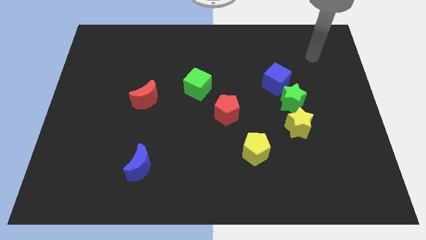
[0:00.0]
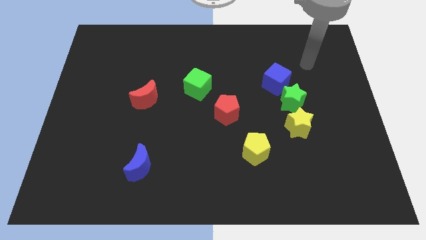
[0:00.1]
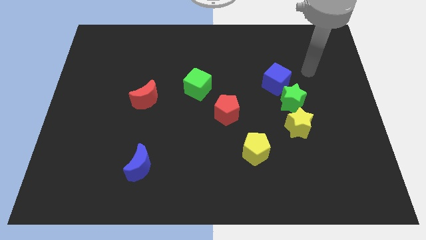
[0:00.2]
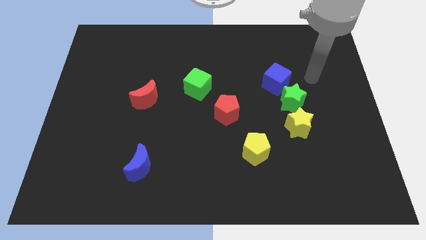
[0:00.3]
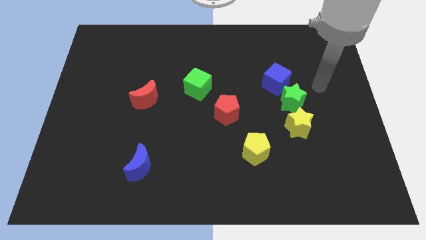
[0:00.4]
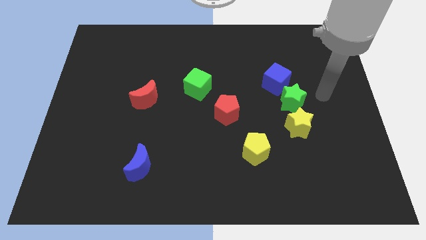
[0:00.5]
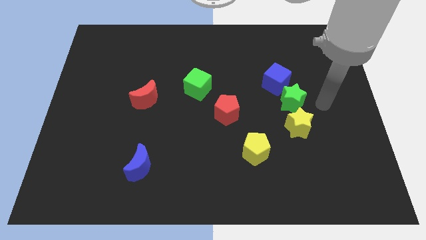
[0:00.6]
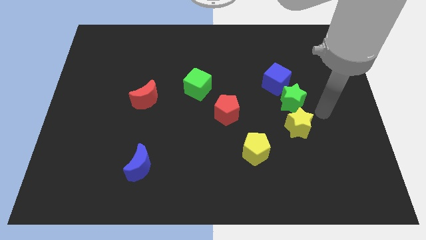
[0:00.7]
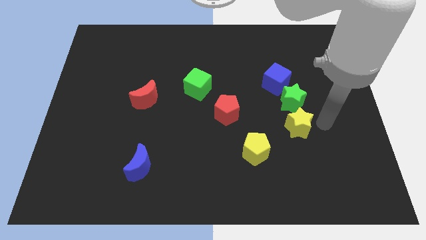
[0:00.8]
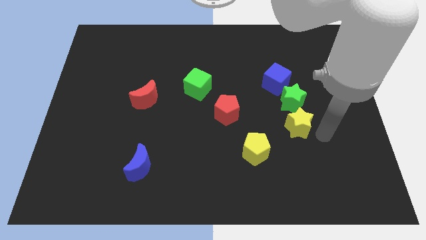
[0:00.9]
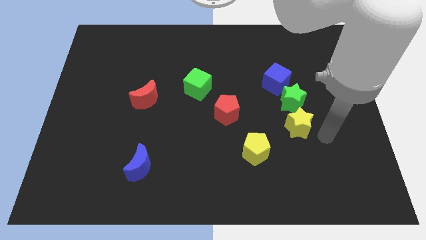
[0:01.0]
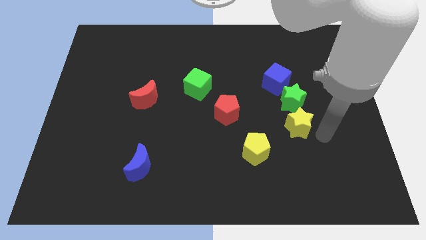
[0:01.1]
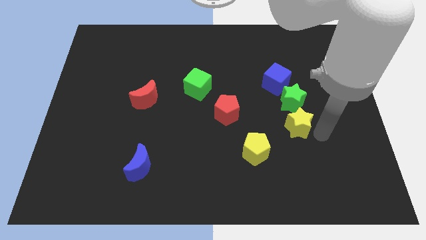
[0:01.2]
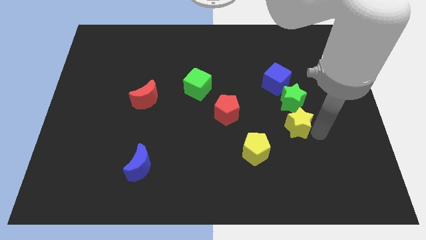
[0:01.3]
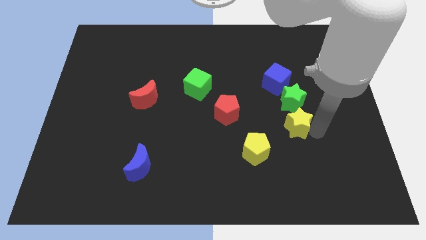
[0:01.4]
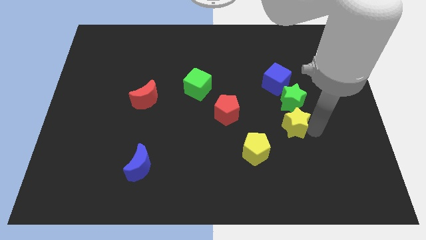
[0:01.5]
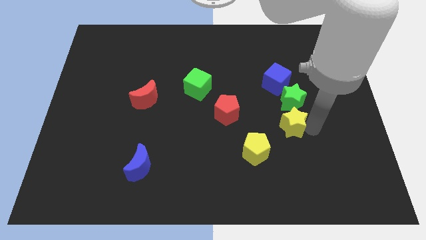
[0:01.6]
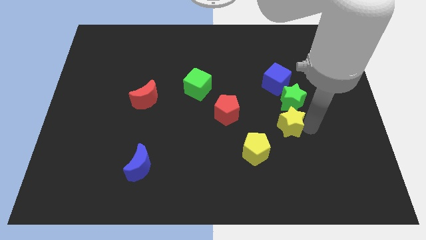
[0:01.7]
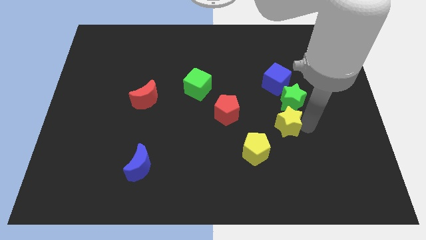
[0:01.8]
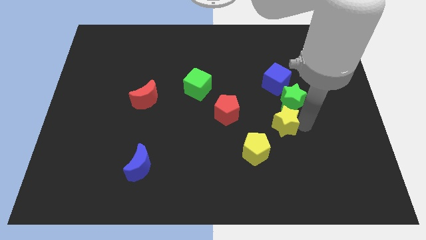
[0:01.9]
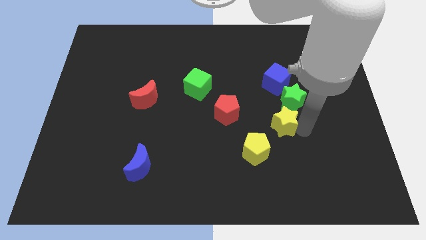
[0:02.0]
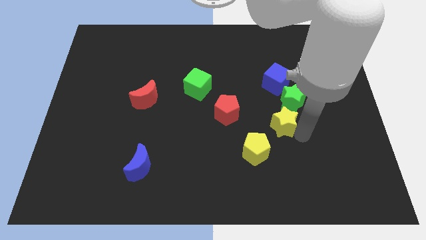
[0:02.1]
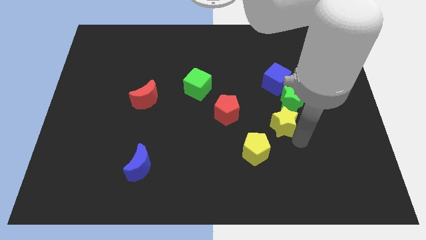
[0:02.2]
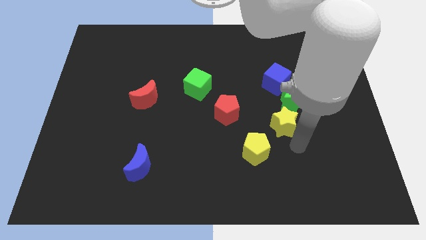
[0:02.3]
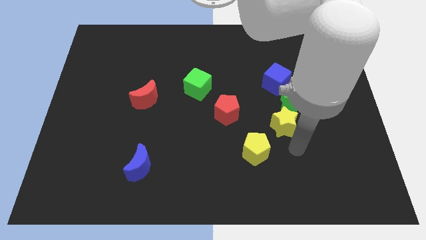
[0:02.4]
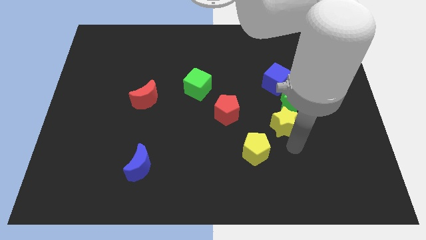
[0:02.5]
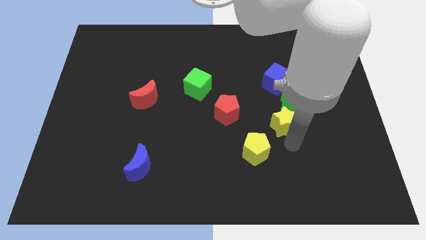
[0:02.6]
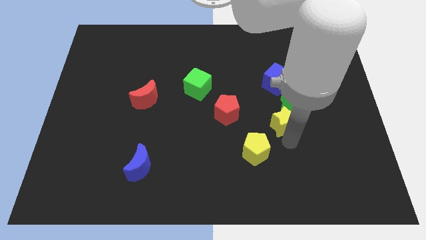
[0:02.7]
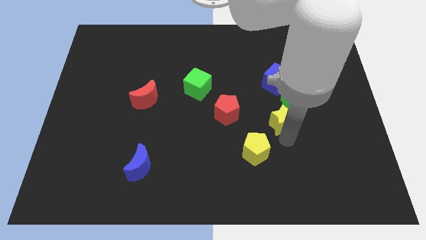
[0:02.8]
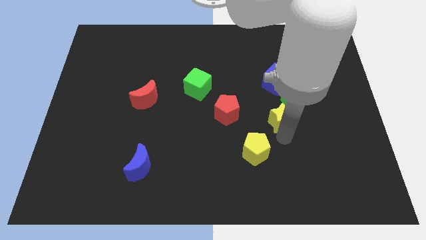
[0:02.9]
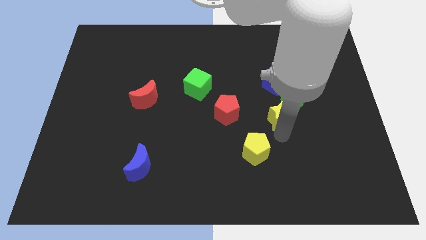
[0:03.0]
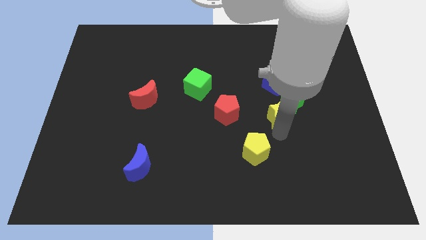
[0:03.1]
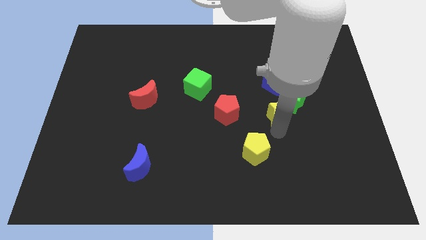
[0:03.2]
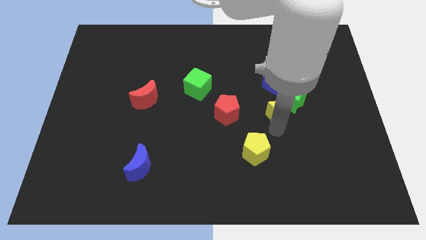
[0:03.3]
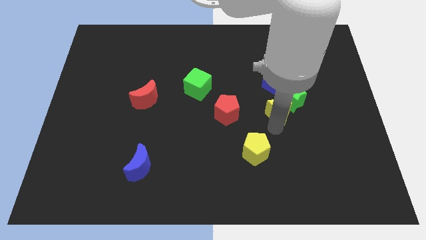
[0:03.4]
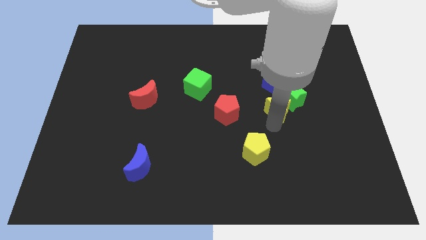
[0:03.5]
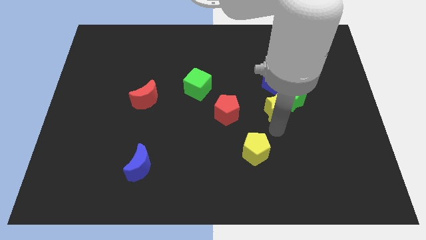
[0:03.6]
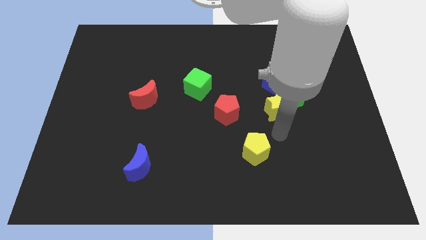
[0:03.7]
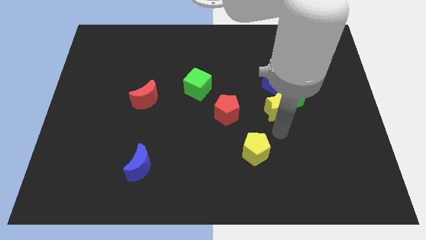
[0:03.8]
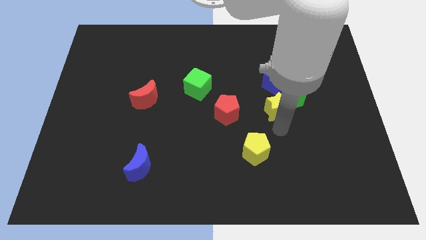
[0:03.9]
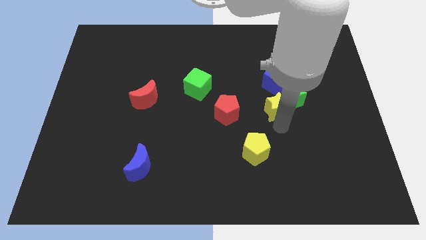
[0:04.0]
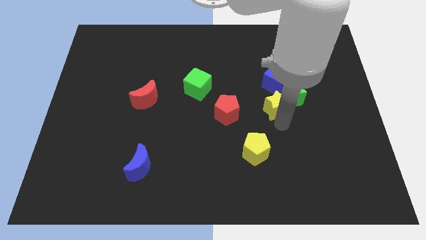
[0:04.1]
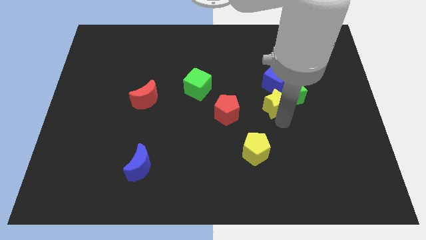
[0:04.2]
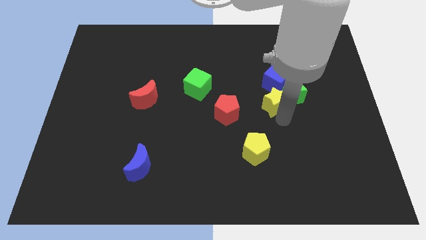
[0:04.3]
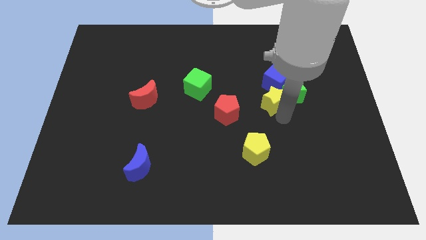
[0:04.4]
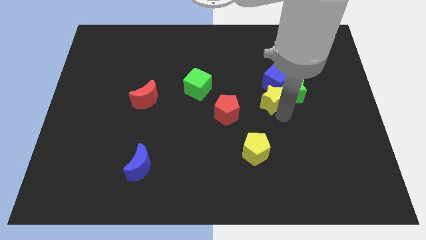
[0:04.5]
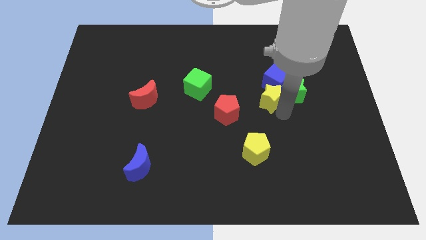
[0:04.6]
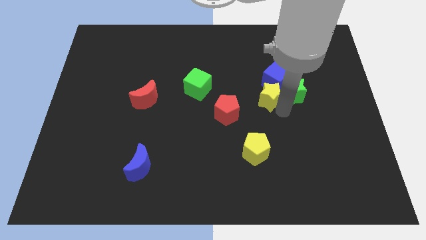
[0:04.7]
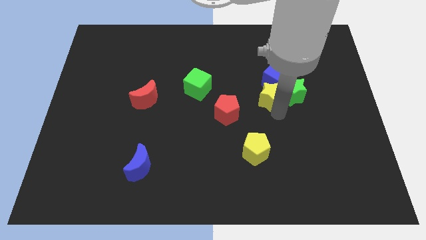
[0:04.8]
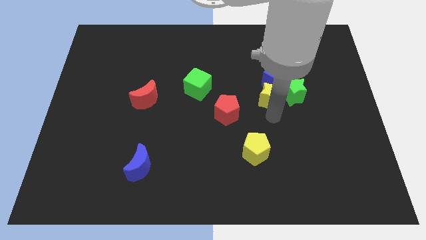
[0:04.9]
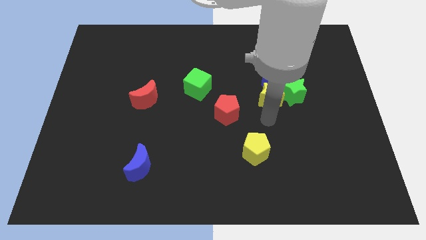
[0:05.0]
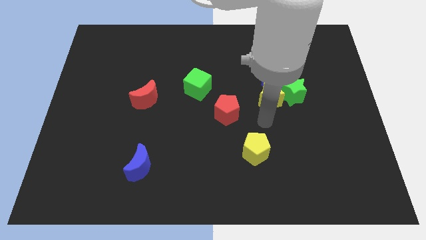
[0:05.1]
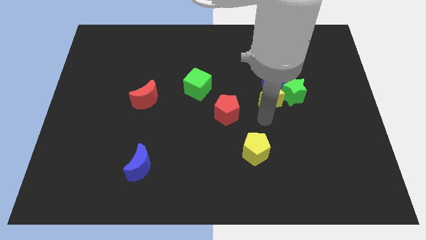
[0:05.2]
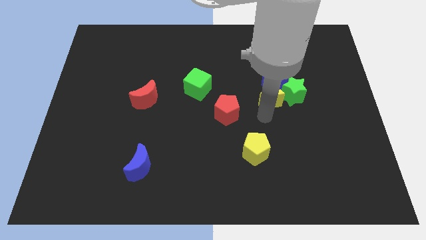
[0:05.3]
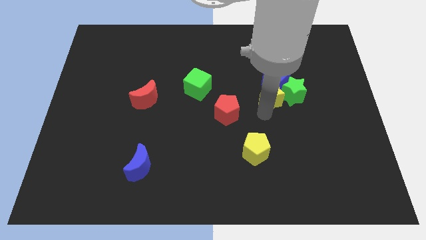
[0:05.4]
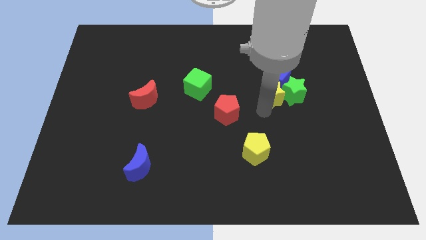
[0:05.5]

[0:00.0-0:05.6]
slide the yellow star close to the blue cube

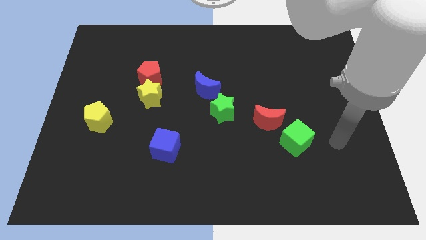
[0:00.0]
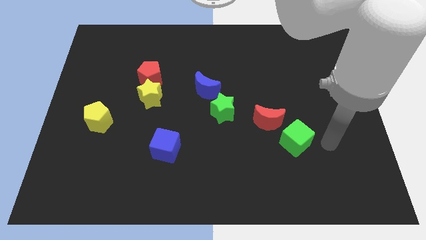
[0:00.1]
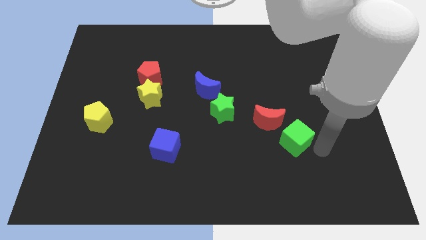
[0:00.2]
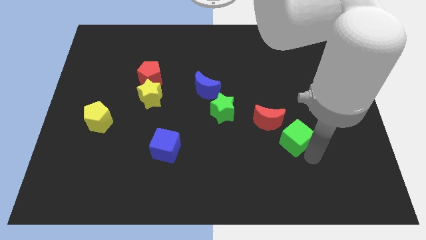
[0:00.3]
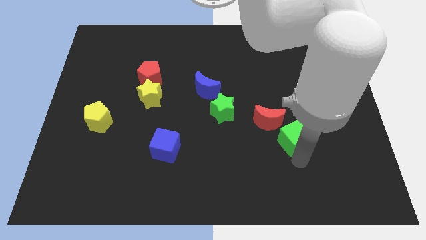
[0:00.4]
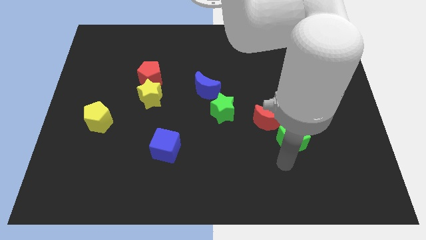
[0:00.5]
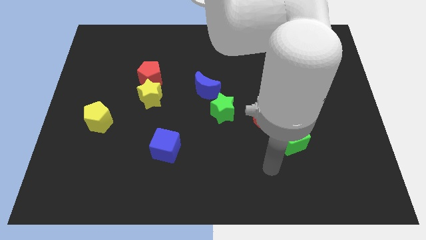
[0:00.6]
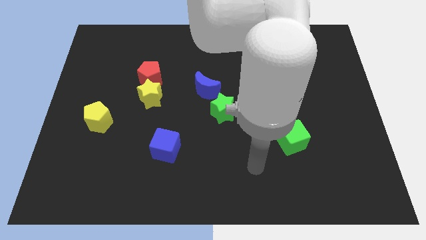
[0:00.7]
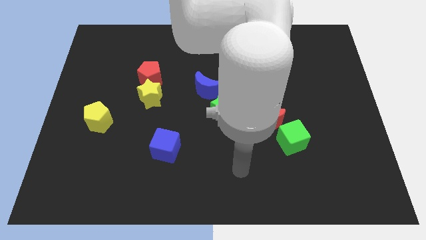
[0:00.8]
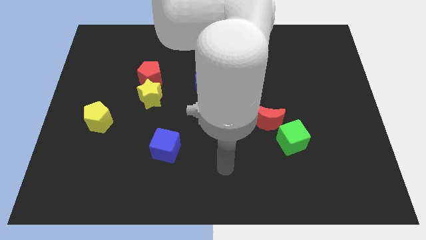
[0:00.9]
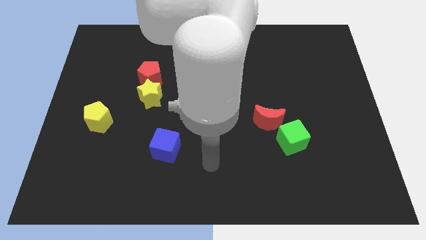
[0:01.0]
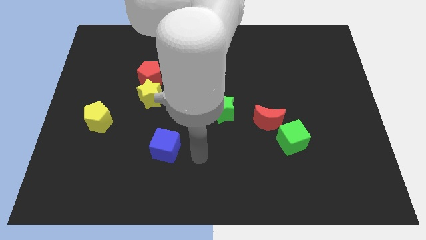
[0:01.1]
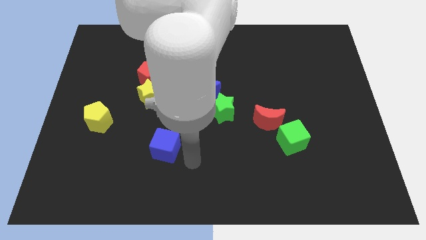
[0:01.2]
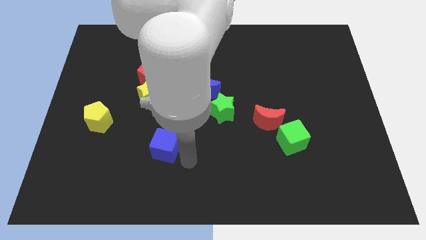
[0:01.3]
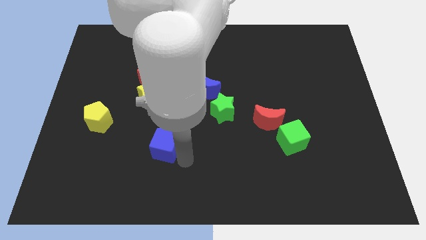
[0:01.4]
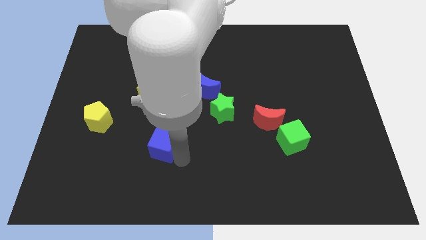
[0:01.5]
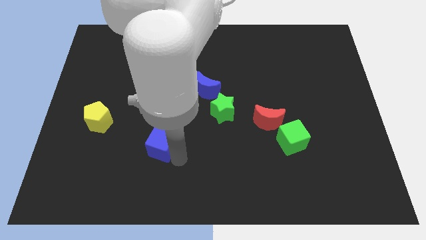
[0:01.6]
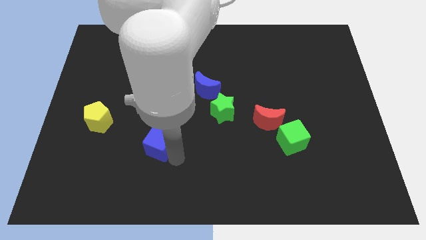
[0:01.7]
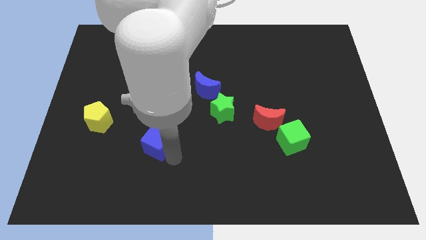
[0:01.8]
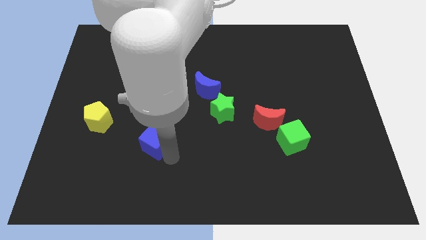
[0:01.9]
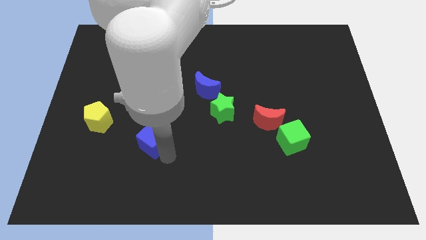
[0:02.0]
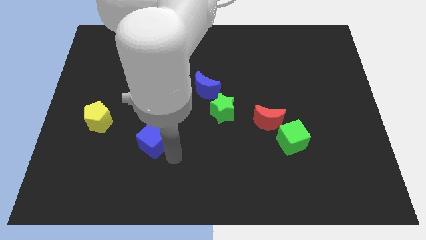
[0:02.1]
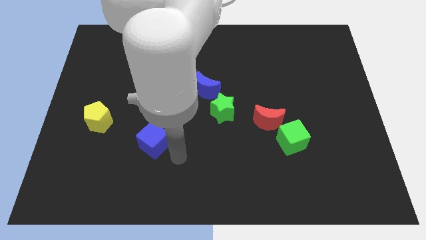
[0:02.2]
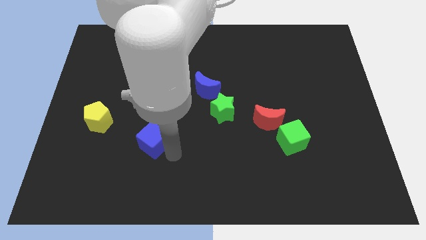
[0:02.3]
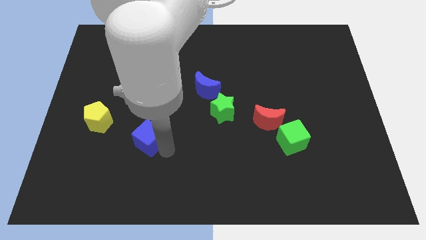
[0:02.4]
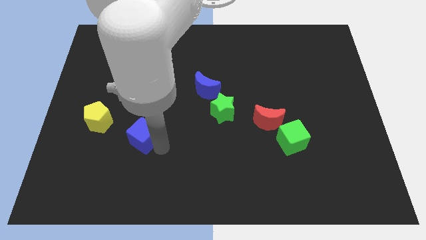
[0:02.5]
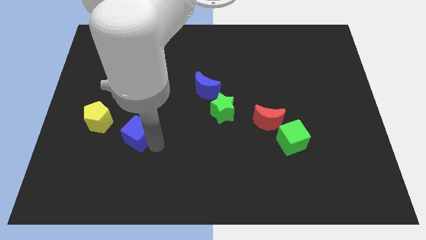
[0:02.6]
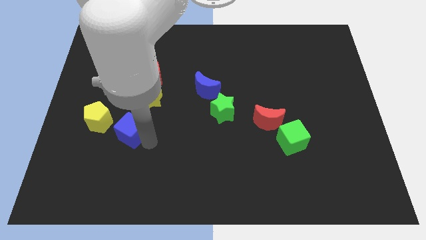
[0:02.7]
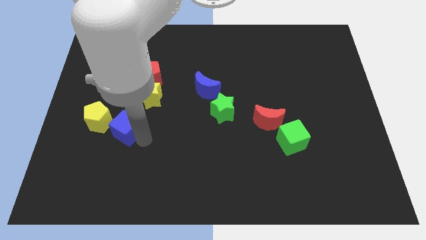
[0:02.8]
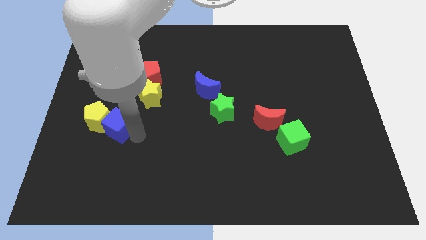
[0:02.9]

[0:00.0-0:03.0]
slide the blue cube next to the yellow pentagon
